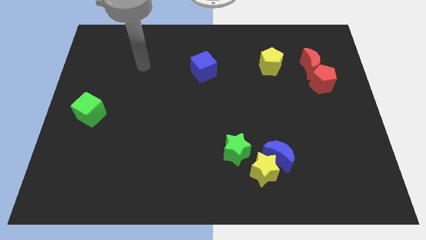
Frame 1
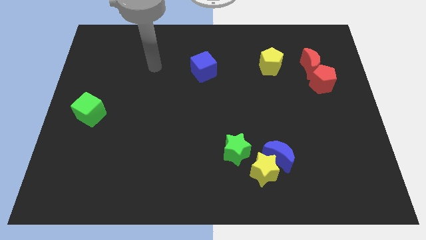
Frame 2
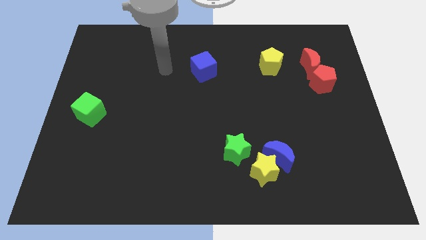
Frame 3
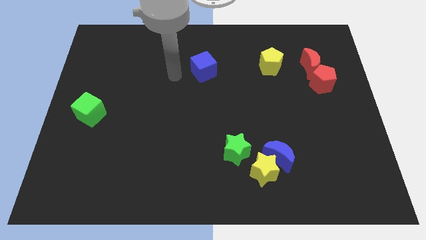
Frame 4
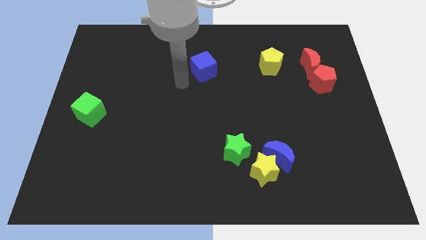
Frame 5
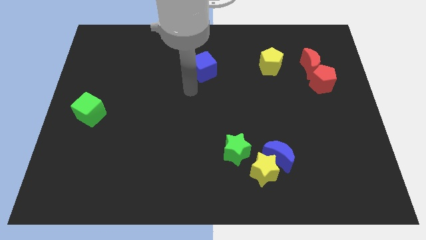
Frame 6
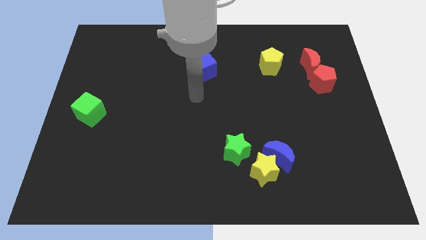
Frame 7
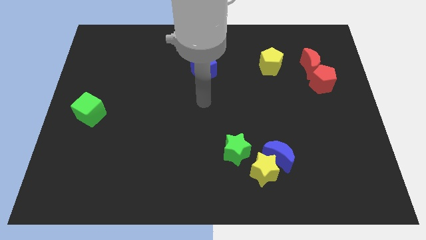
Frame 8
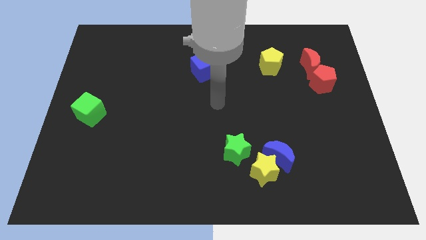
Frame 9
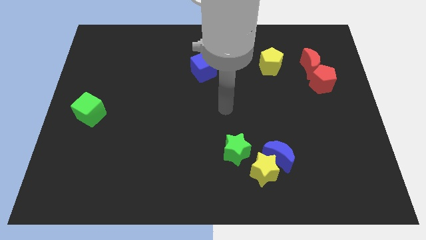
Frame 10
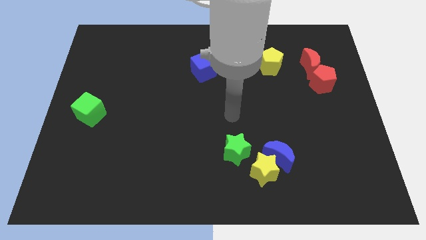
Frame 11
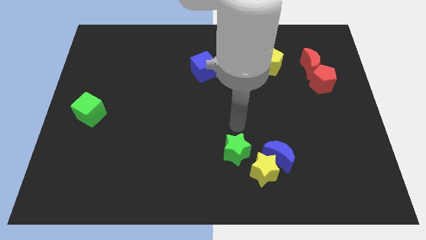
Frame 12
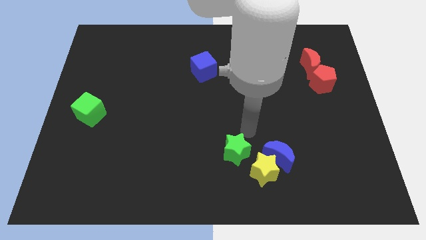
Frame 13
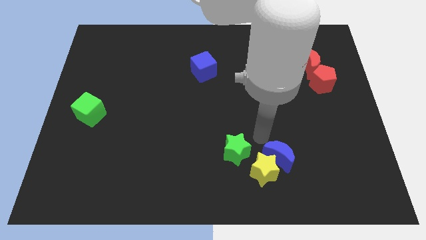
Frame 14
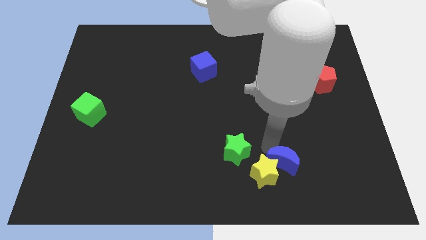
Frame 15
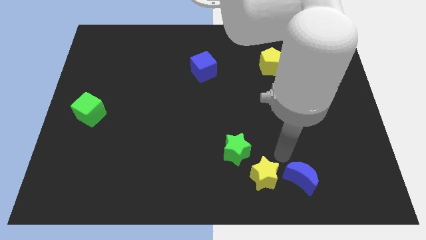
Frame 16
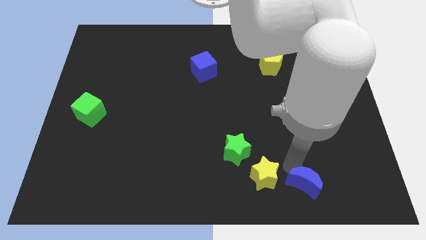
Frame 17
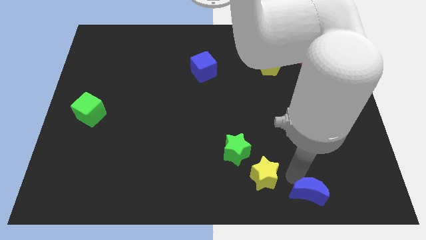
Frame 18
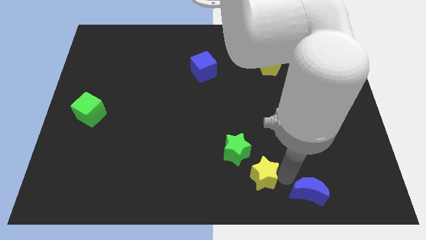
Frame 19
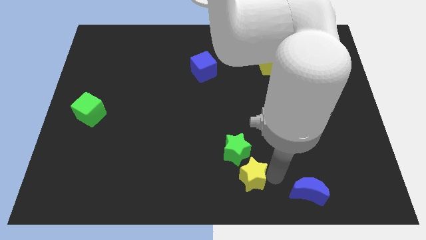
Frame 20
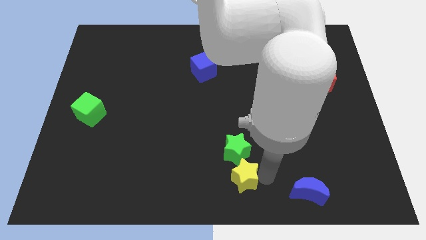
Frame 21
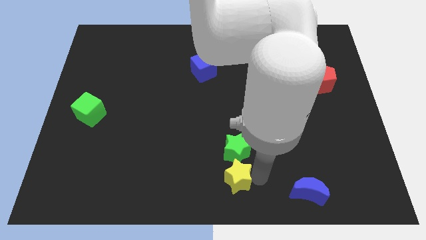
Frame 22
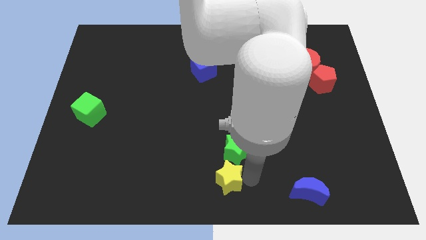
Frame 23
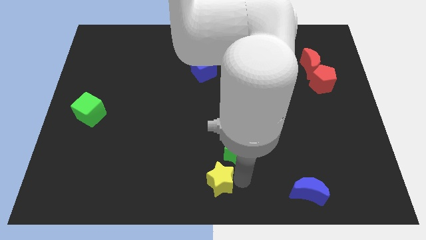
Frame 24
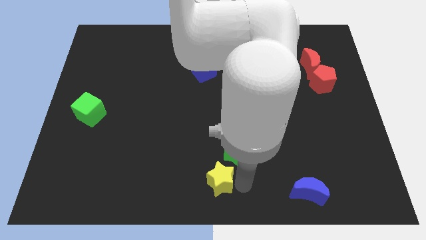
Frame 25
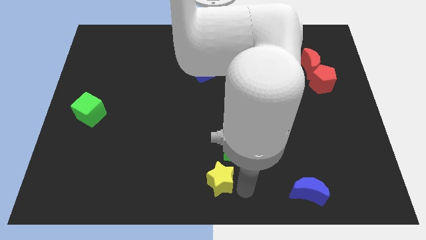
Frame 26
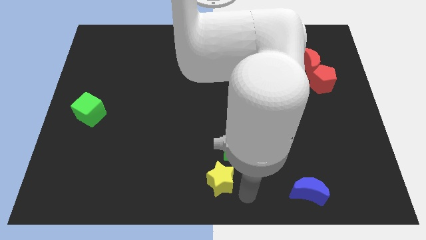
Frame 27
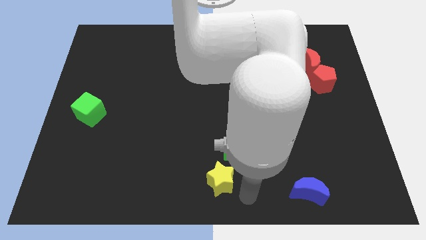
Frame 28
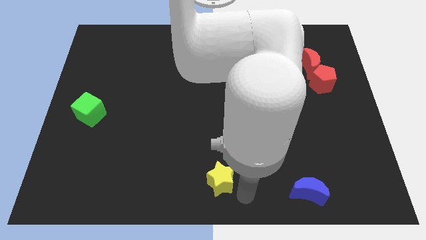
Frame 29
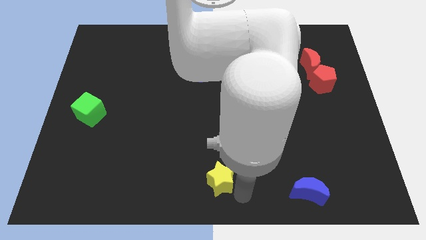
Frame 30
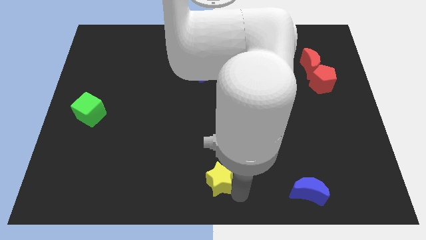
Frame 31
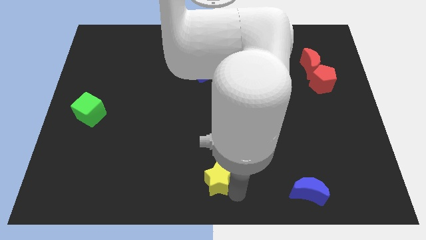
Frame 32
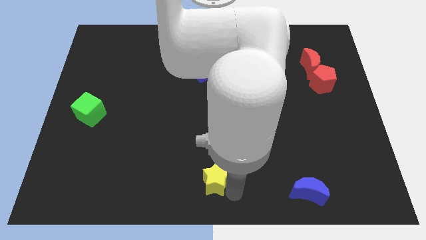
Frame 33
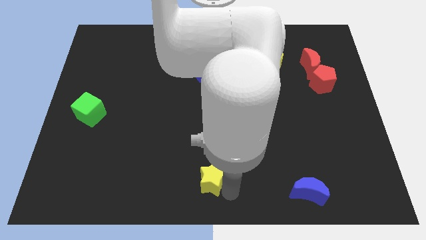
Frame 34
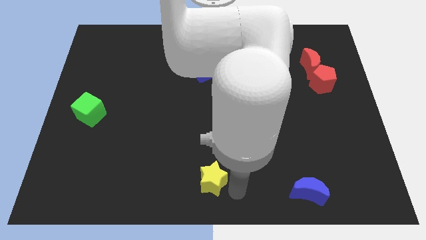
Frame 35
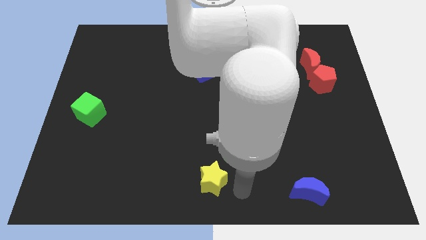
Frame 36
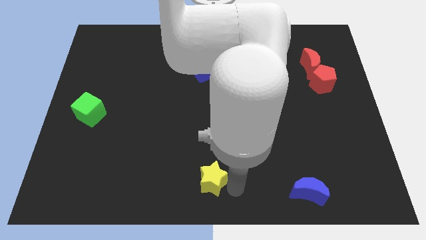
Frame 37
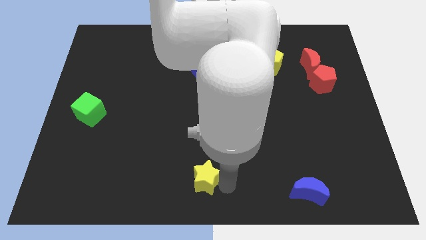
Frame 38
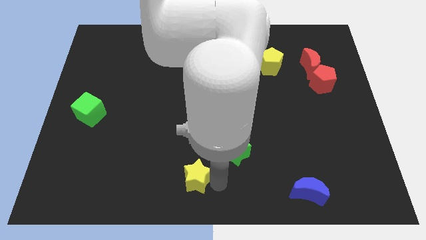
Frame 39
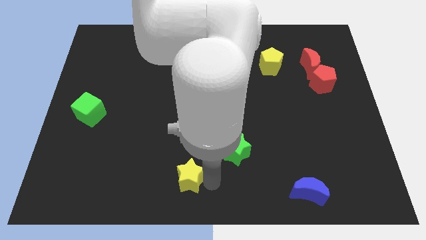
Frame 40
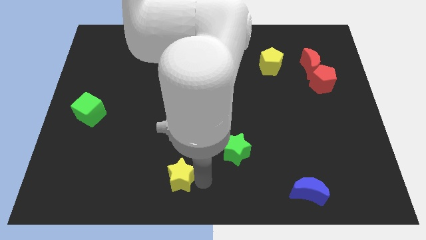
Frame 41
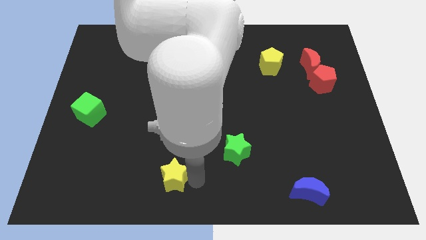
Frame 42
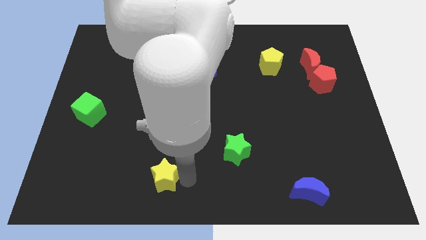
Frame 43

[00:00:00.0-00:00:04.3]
push the yellow star left

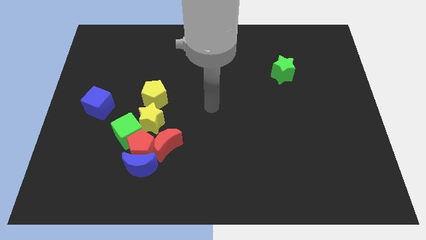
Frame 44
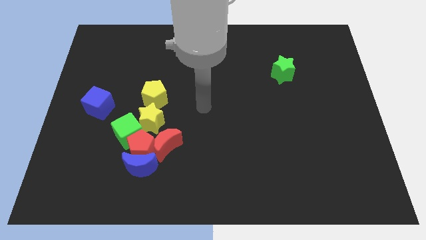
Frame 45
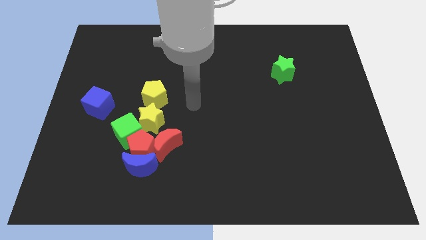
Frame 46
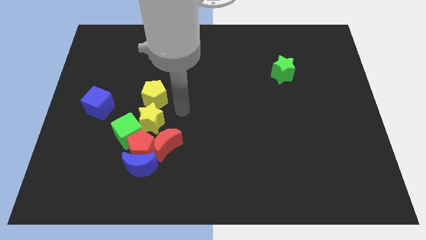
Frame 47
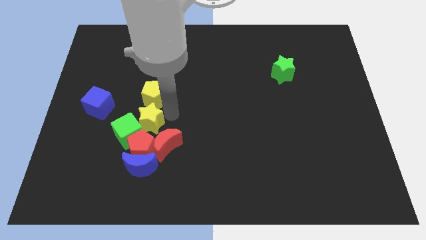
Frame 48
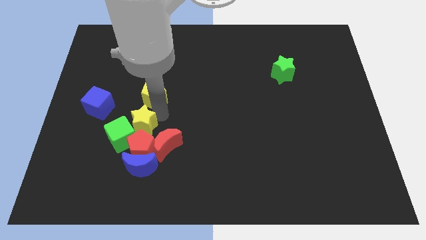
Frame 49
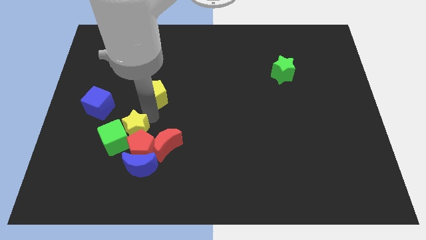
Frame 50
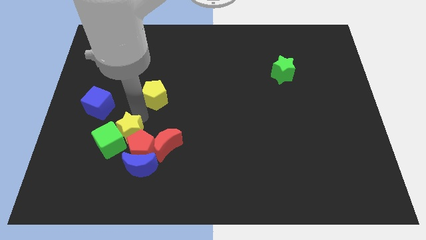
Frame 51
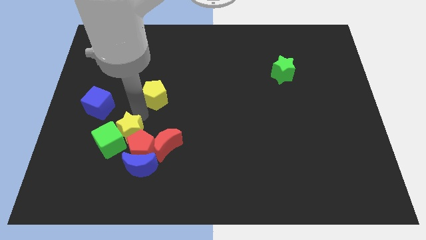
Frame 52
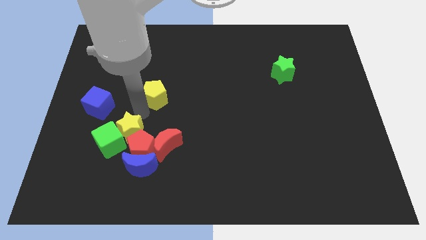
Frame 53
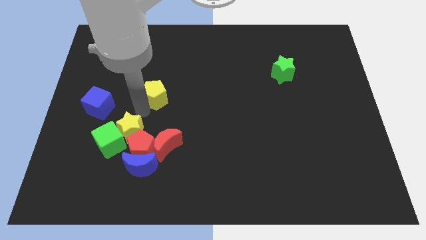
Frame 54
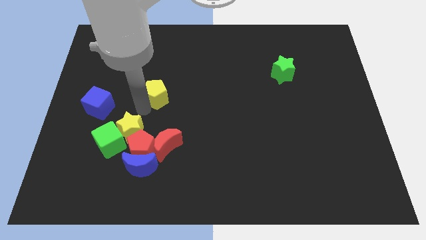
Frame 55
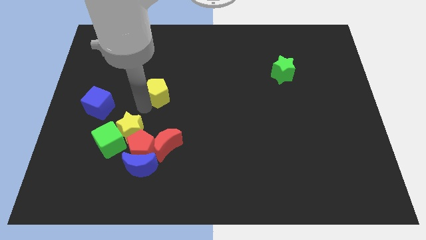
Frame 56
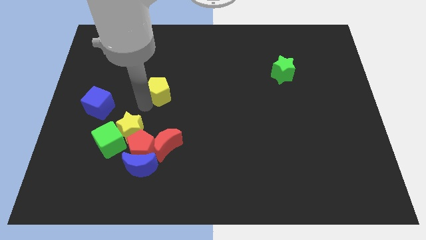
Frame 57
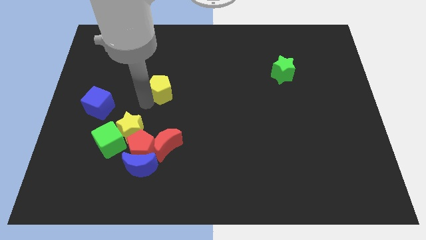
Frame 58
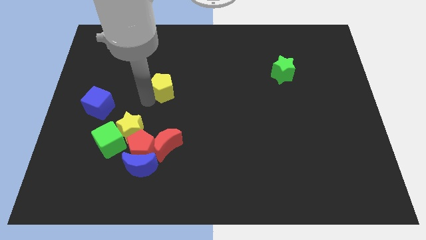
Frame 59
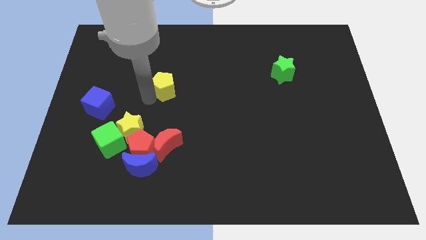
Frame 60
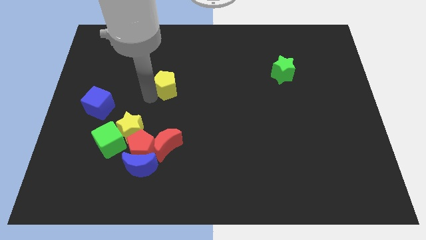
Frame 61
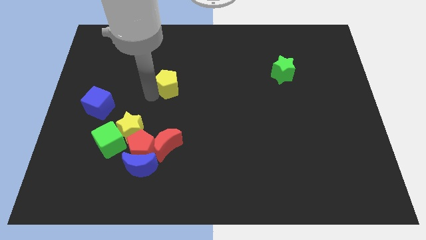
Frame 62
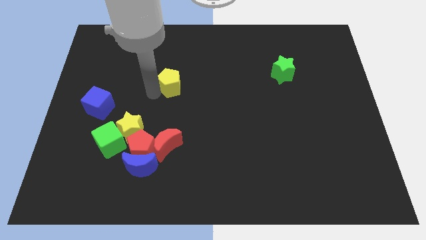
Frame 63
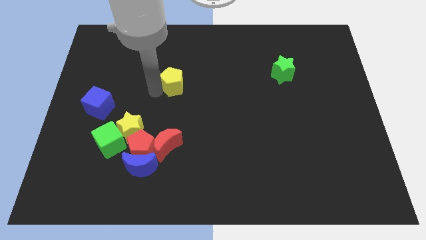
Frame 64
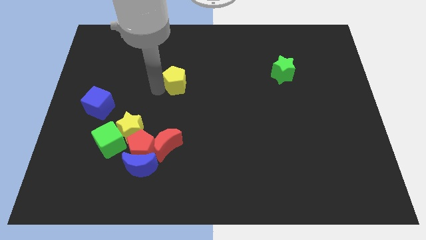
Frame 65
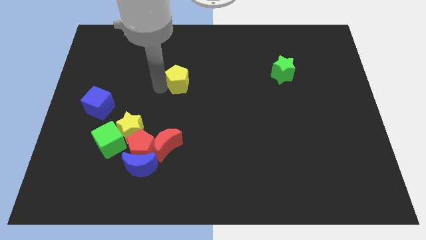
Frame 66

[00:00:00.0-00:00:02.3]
move the yellow pentagon somewhat diagonally upwards and right

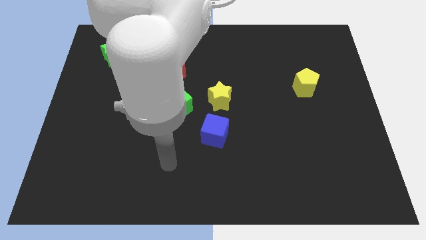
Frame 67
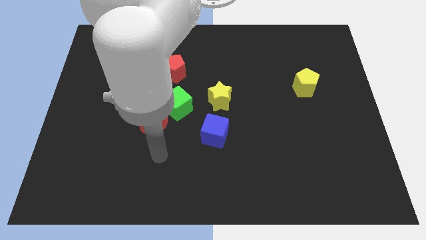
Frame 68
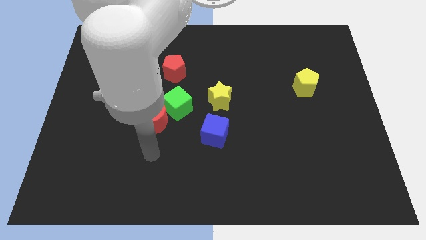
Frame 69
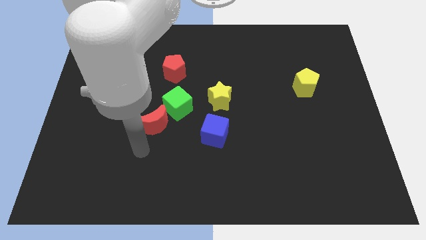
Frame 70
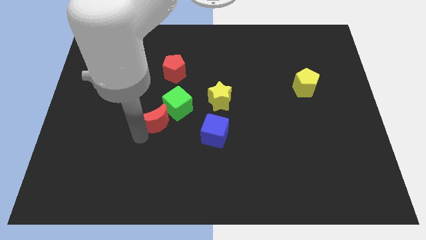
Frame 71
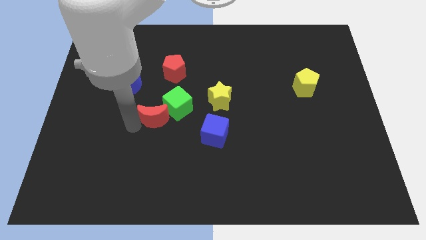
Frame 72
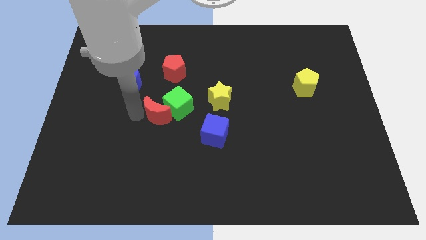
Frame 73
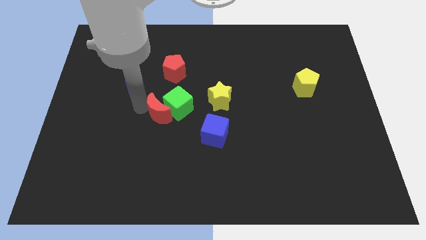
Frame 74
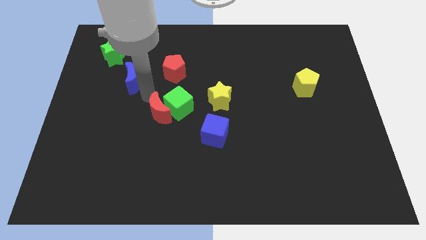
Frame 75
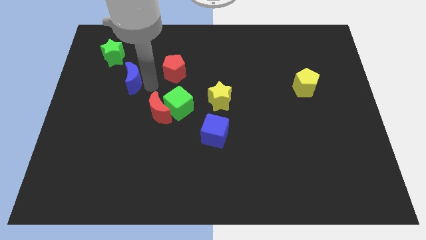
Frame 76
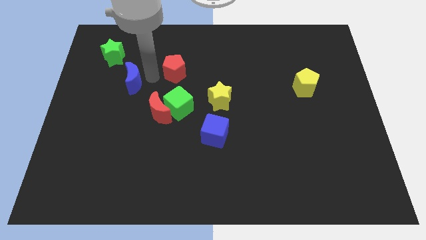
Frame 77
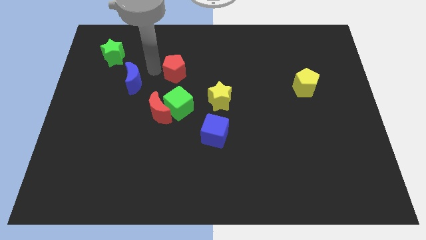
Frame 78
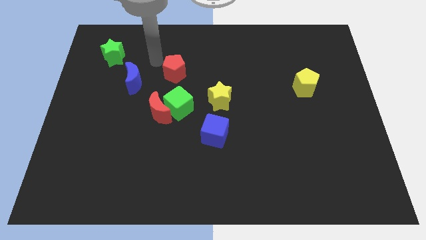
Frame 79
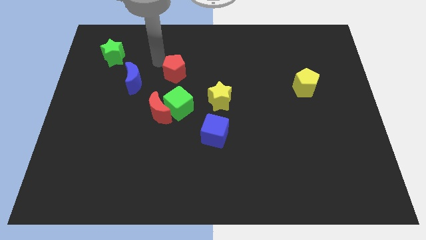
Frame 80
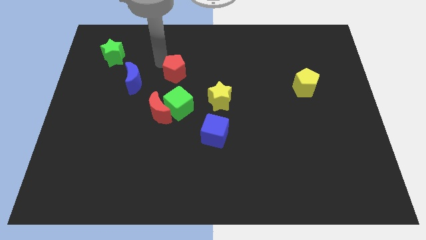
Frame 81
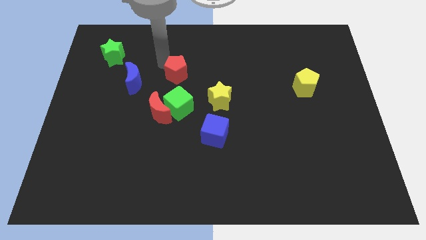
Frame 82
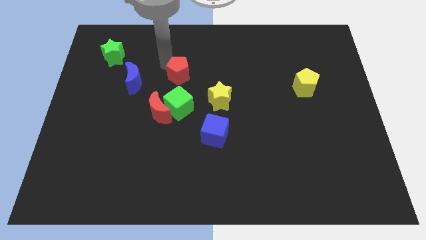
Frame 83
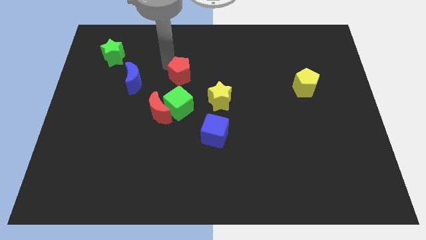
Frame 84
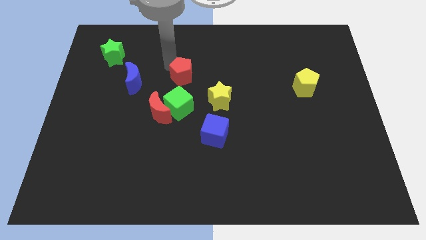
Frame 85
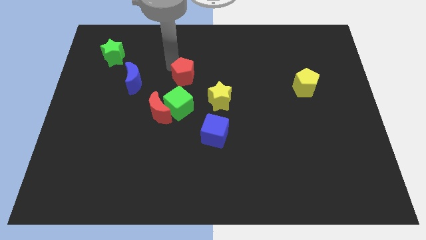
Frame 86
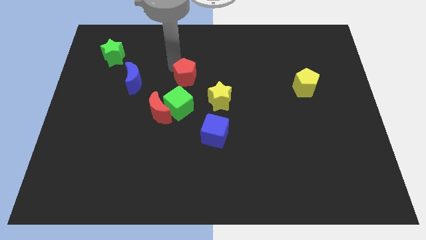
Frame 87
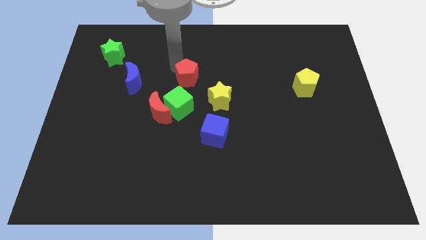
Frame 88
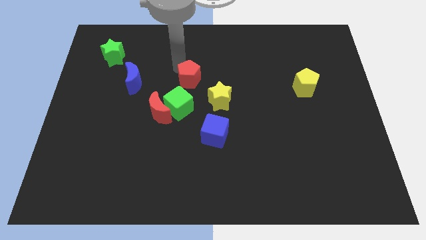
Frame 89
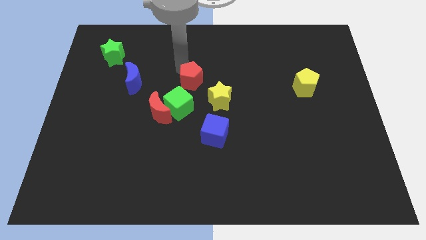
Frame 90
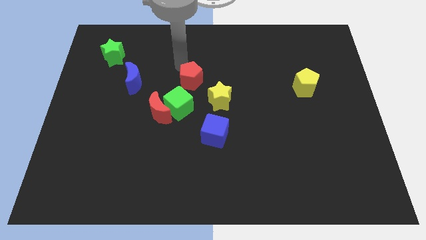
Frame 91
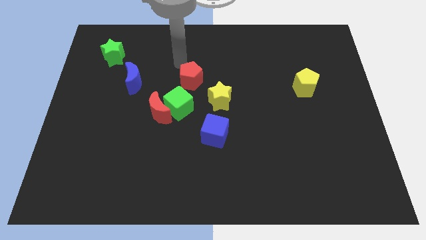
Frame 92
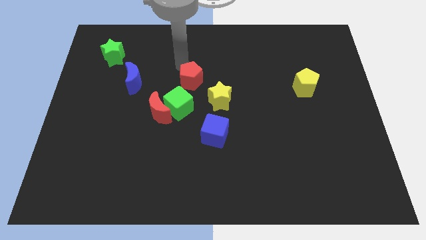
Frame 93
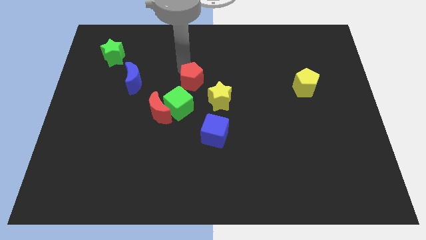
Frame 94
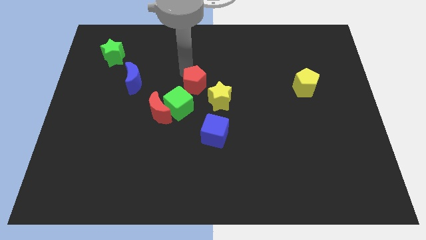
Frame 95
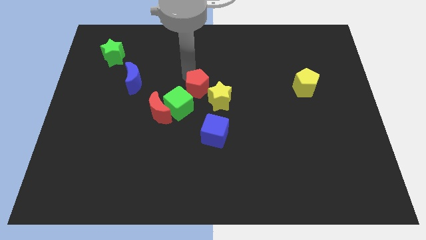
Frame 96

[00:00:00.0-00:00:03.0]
slide the red pentagon a little bit downwards and to the right diagonally
